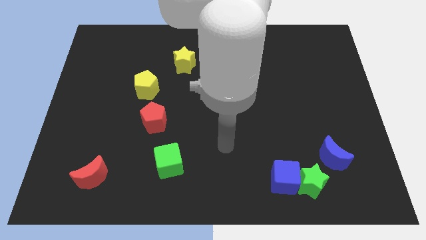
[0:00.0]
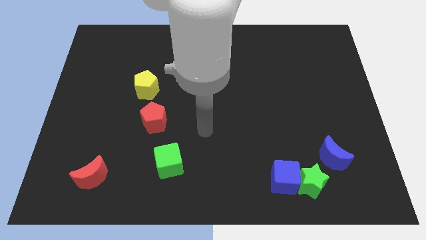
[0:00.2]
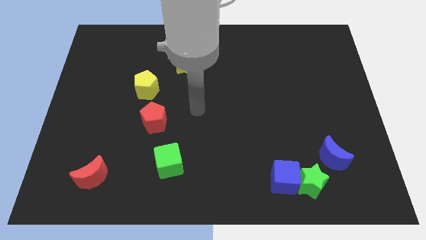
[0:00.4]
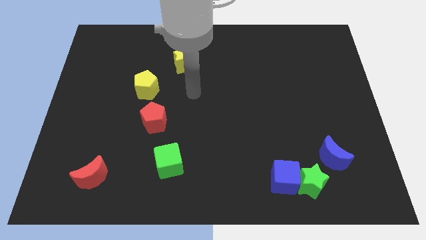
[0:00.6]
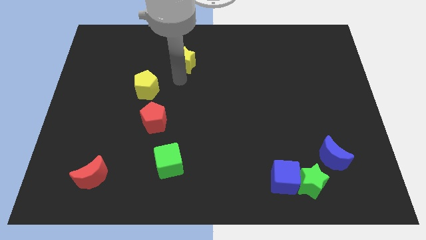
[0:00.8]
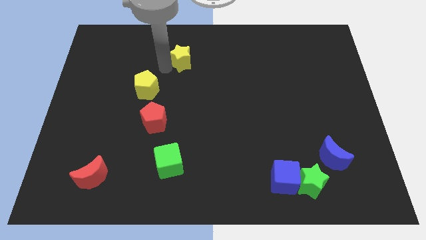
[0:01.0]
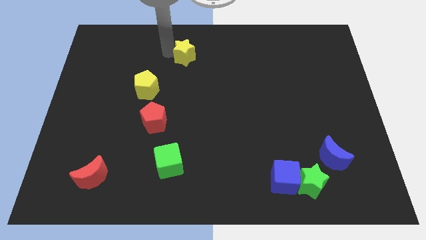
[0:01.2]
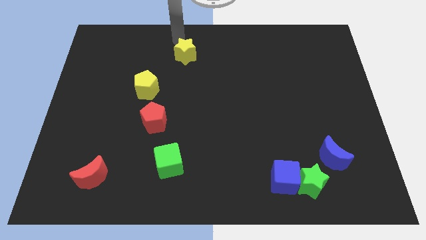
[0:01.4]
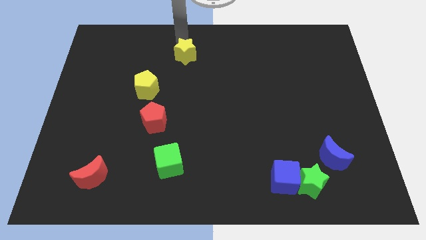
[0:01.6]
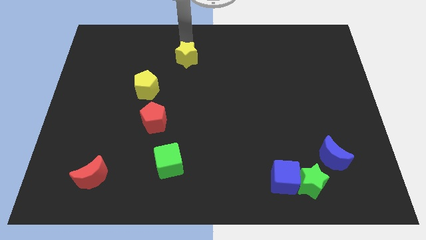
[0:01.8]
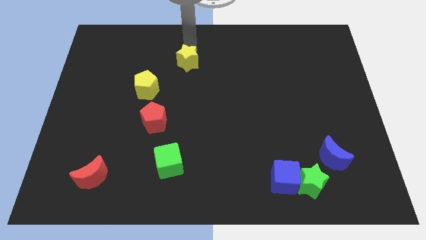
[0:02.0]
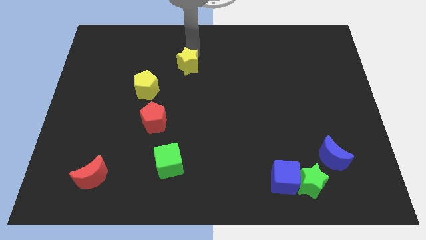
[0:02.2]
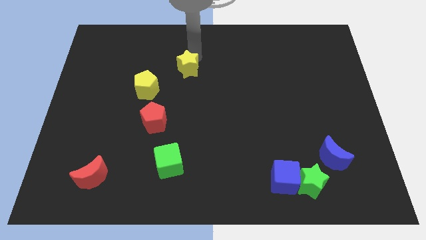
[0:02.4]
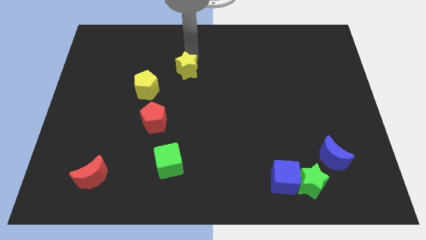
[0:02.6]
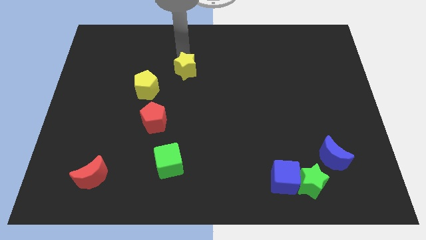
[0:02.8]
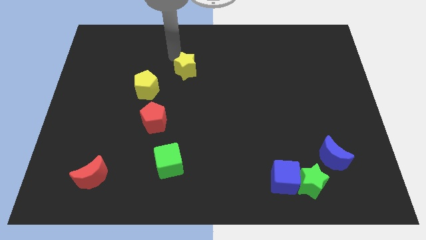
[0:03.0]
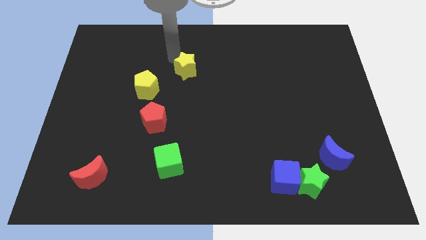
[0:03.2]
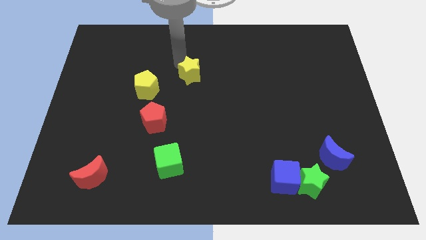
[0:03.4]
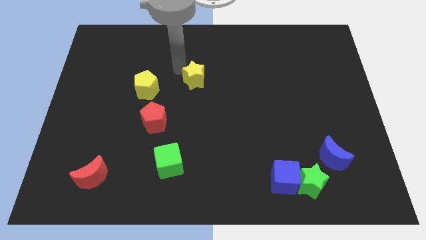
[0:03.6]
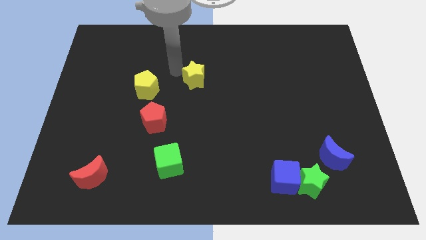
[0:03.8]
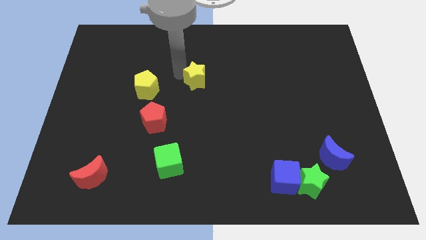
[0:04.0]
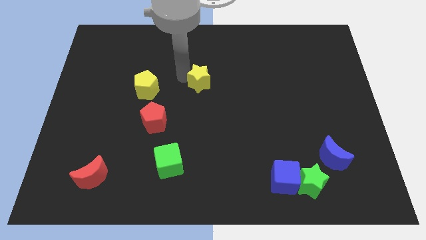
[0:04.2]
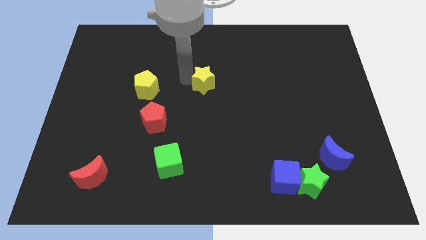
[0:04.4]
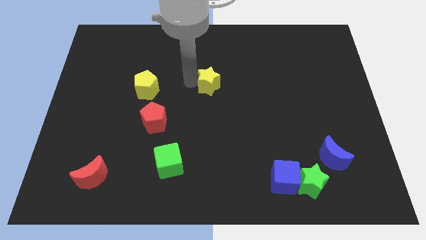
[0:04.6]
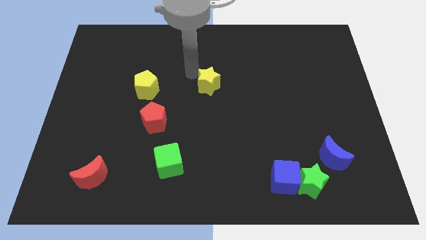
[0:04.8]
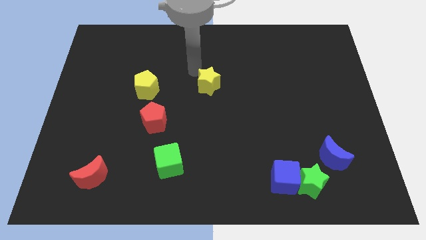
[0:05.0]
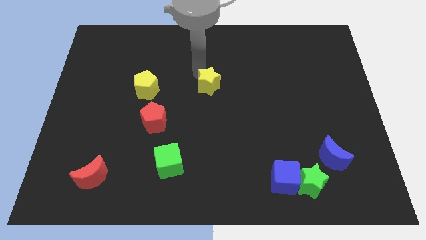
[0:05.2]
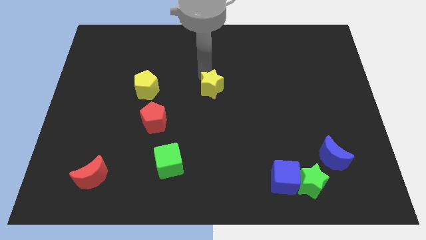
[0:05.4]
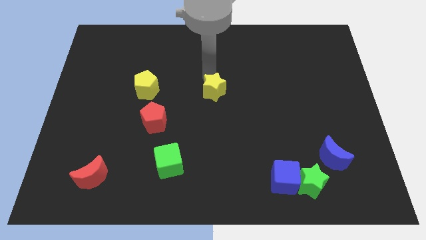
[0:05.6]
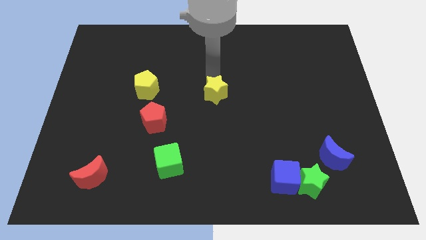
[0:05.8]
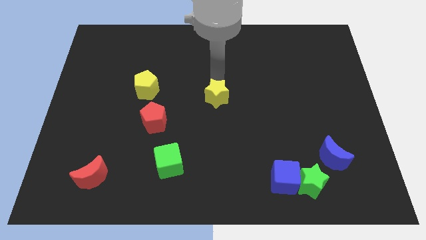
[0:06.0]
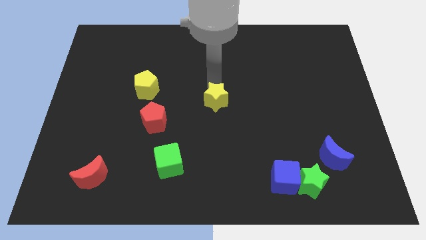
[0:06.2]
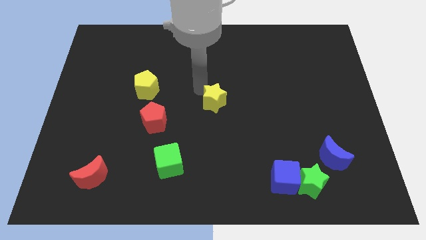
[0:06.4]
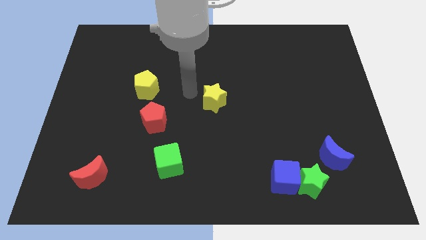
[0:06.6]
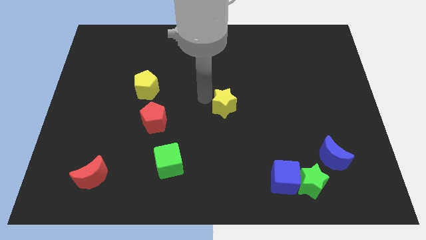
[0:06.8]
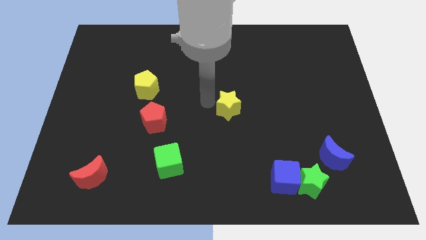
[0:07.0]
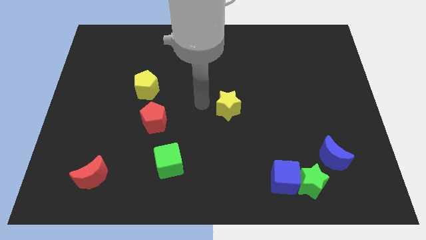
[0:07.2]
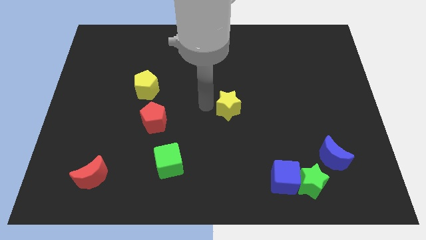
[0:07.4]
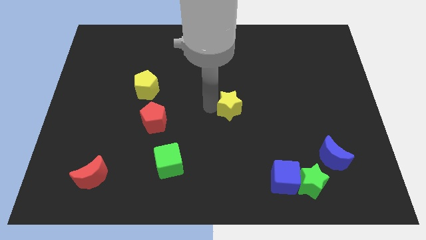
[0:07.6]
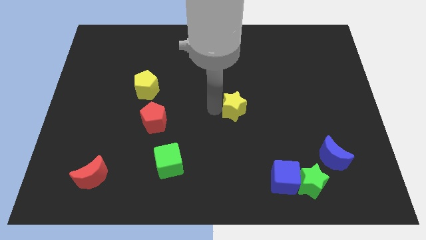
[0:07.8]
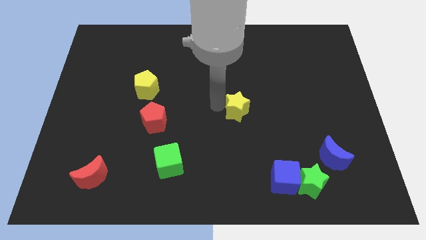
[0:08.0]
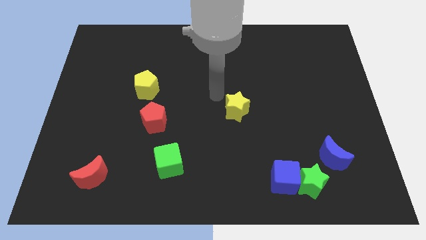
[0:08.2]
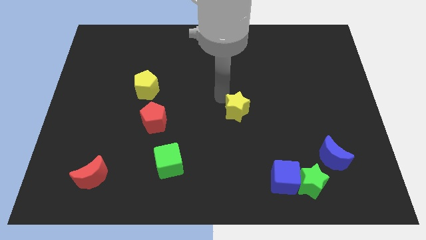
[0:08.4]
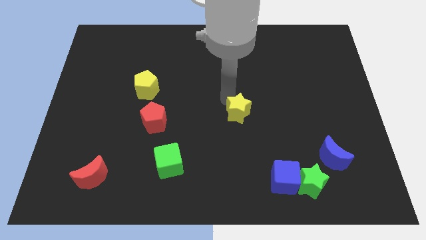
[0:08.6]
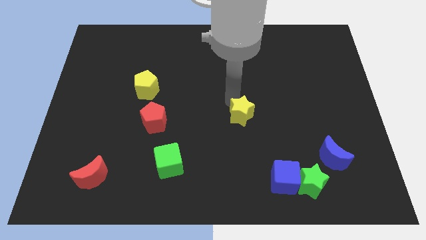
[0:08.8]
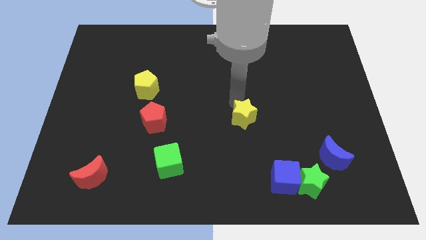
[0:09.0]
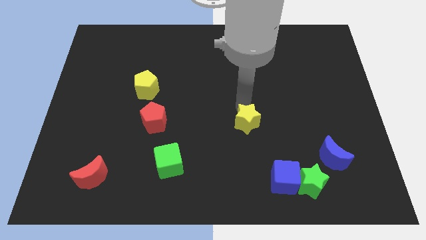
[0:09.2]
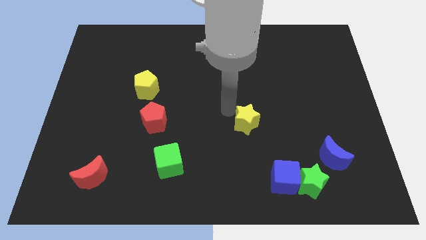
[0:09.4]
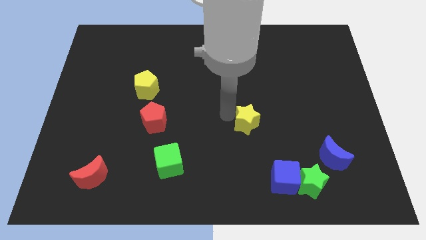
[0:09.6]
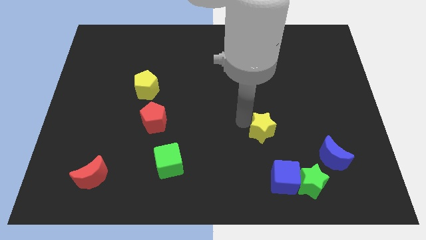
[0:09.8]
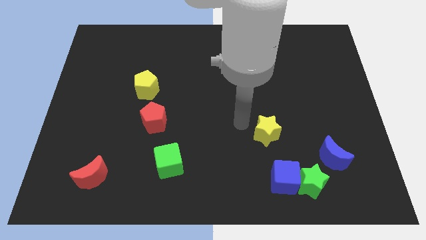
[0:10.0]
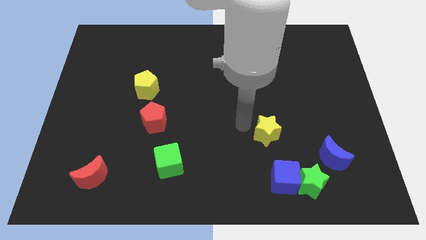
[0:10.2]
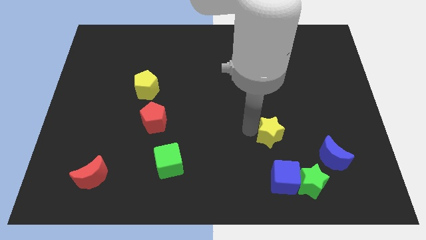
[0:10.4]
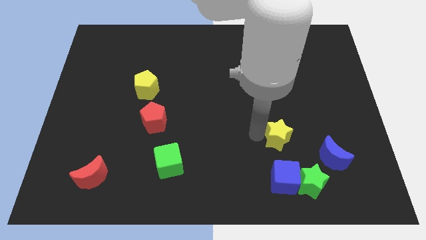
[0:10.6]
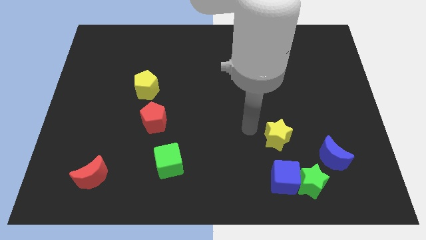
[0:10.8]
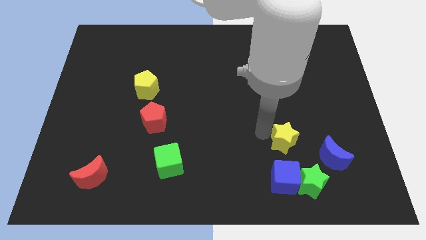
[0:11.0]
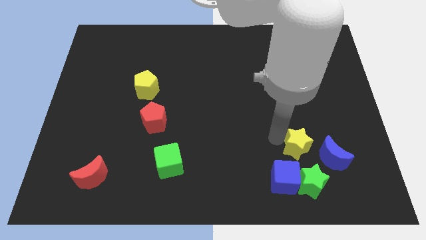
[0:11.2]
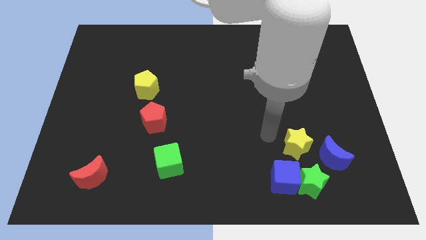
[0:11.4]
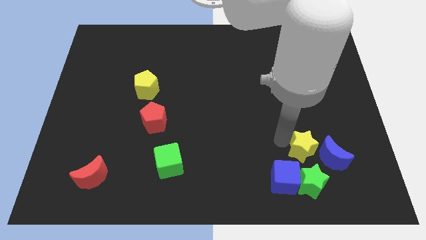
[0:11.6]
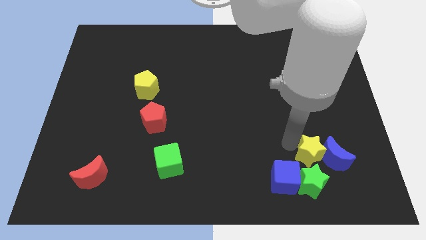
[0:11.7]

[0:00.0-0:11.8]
put the yellow star close to the blue moon
